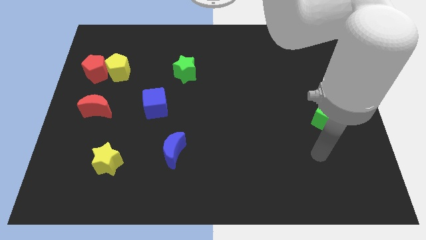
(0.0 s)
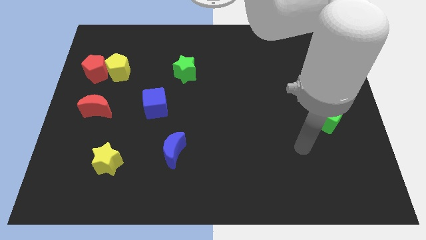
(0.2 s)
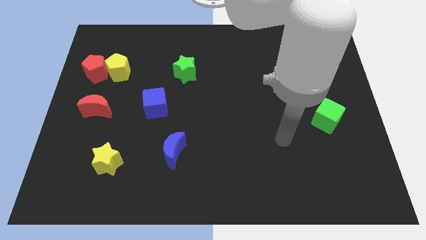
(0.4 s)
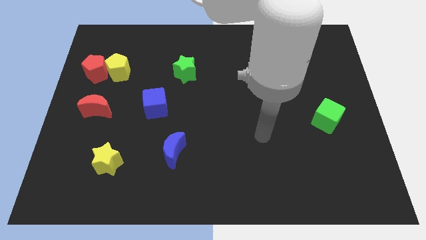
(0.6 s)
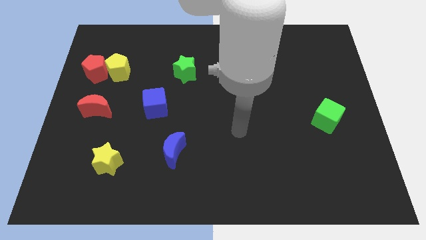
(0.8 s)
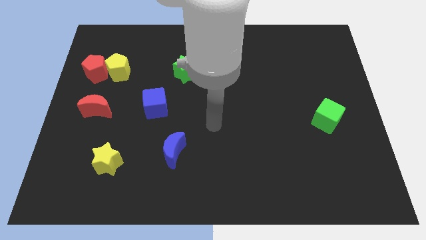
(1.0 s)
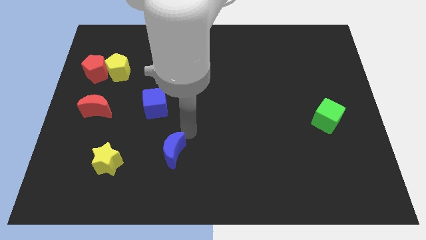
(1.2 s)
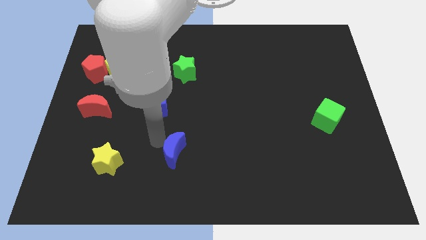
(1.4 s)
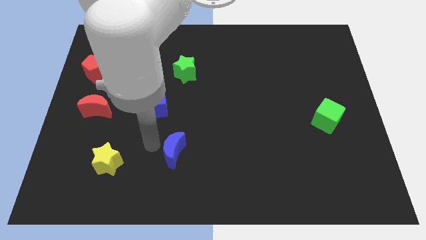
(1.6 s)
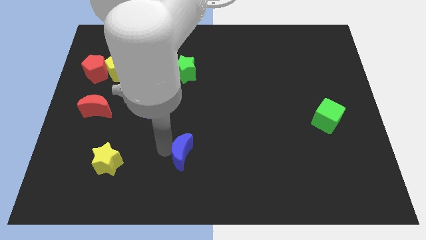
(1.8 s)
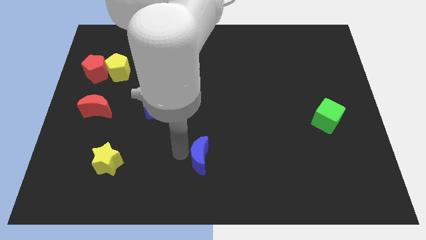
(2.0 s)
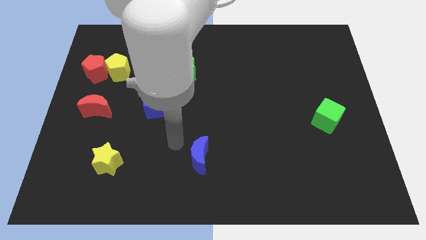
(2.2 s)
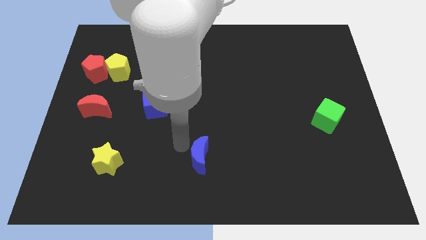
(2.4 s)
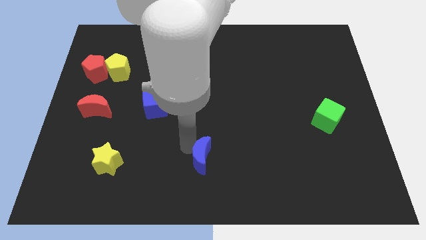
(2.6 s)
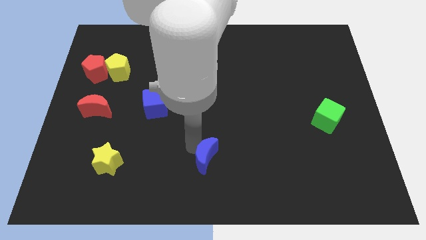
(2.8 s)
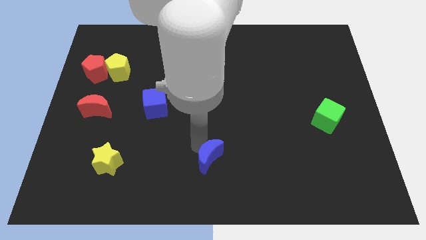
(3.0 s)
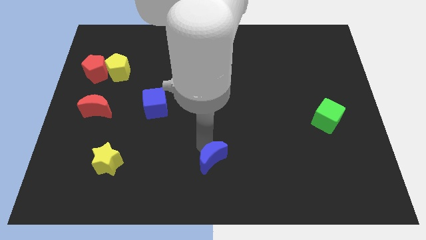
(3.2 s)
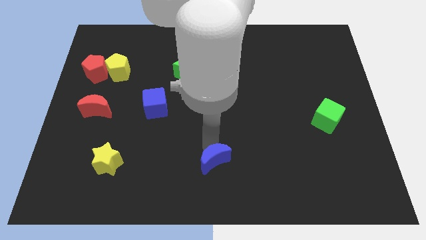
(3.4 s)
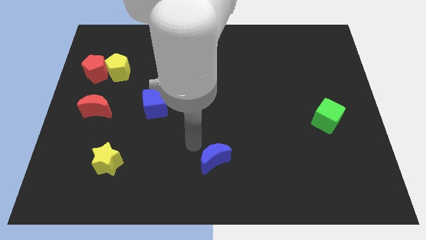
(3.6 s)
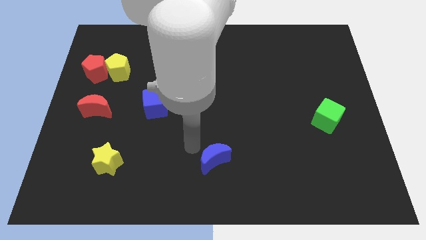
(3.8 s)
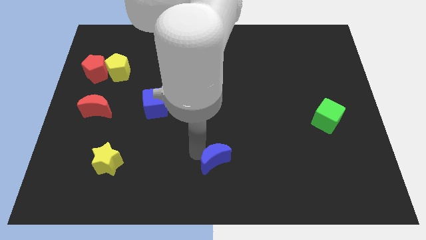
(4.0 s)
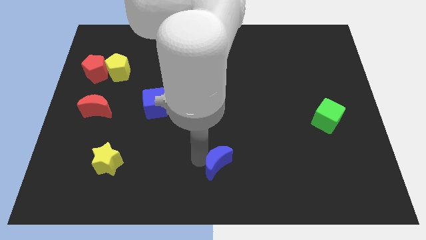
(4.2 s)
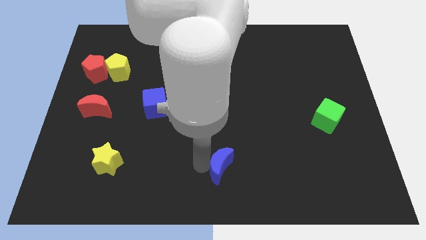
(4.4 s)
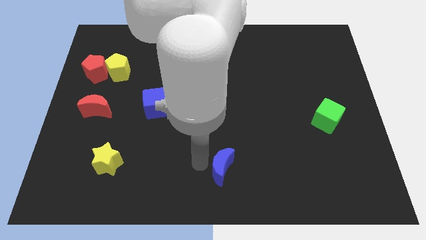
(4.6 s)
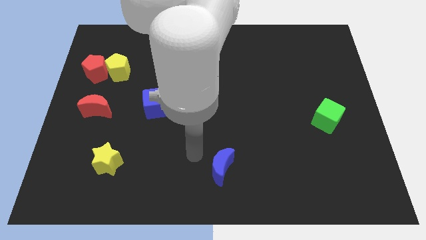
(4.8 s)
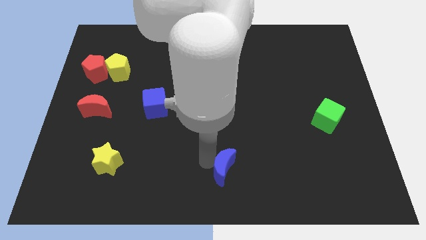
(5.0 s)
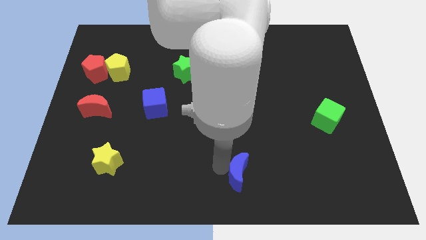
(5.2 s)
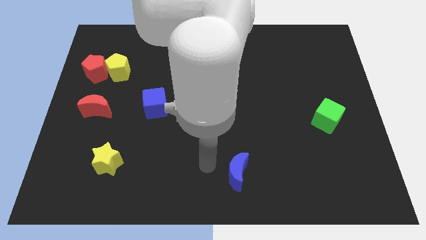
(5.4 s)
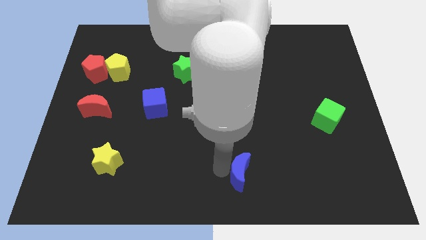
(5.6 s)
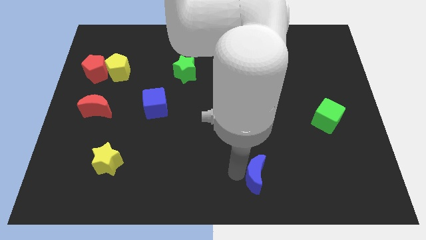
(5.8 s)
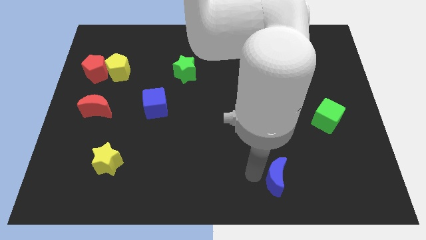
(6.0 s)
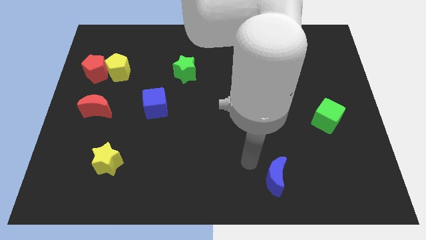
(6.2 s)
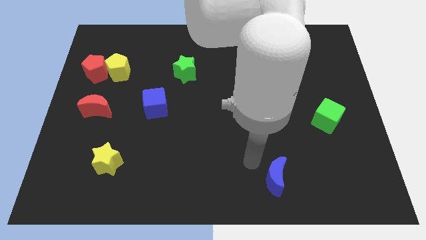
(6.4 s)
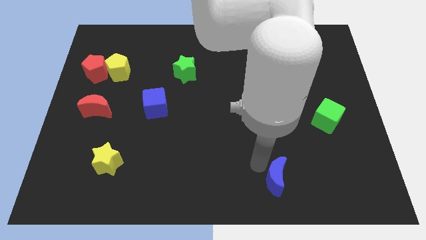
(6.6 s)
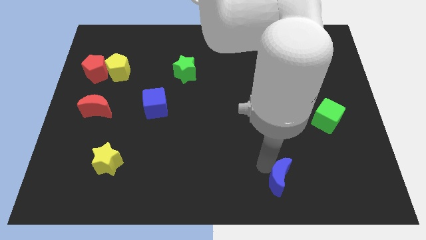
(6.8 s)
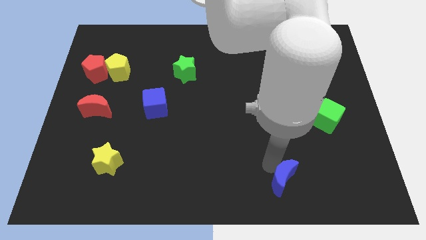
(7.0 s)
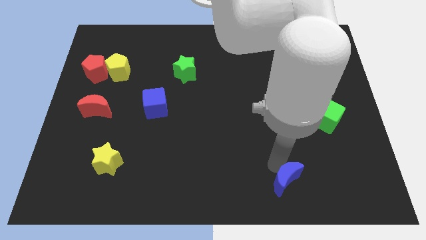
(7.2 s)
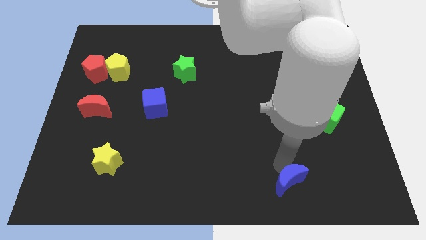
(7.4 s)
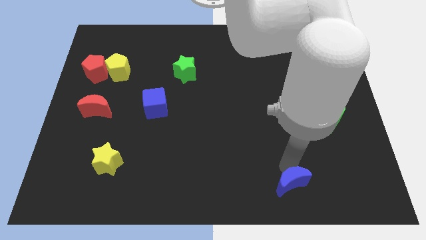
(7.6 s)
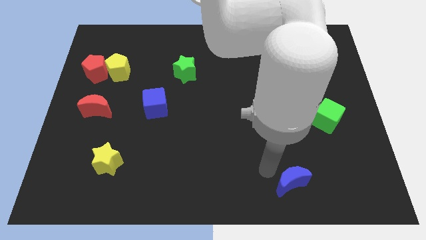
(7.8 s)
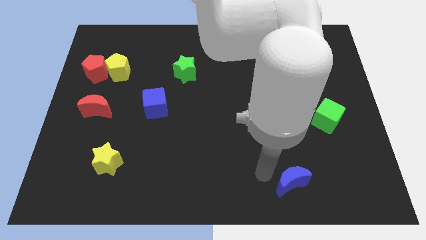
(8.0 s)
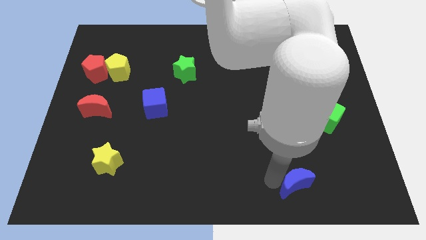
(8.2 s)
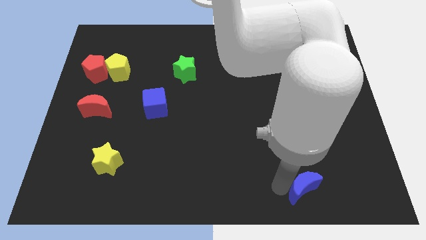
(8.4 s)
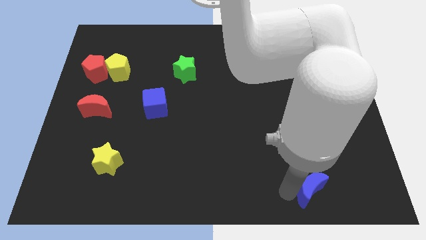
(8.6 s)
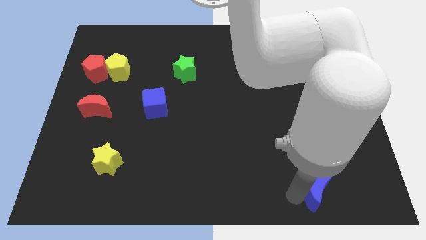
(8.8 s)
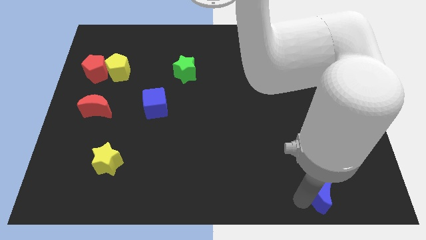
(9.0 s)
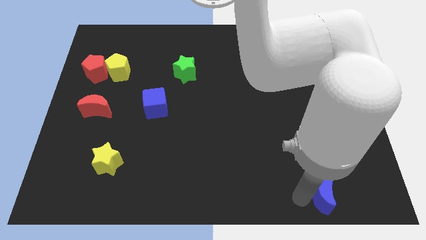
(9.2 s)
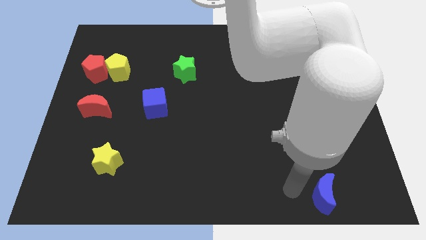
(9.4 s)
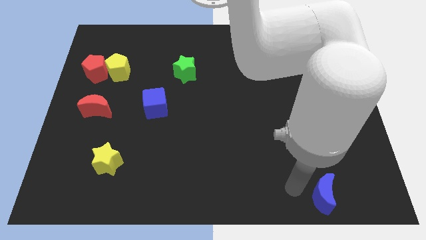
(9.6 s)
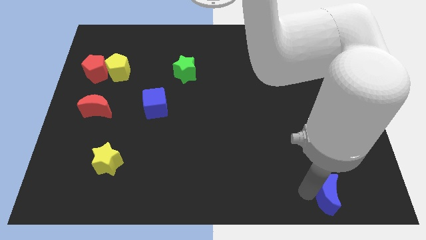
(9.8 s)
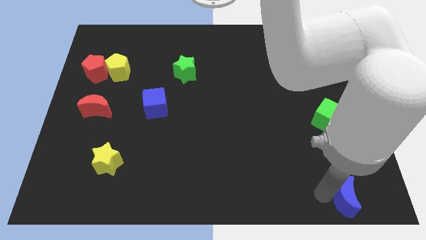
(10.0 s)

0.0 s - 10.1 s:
move the blue moon to the bottom right of the board

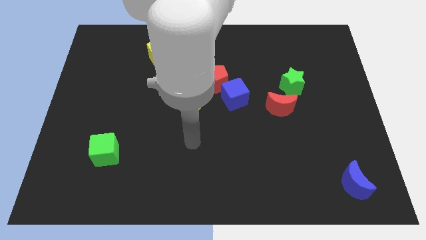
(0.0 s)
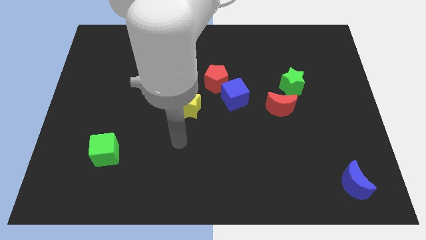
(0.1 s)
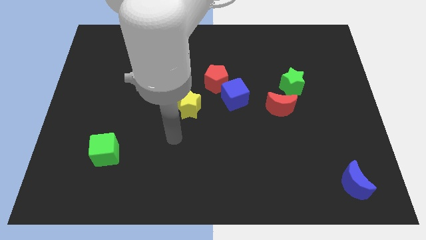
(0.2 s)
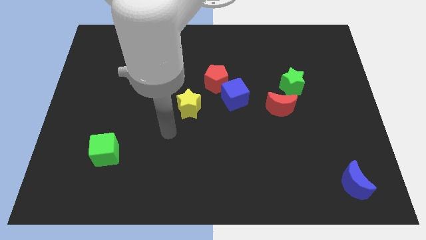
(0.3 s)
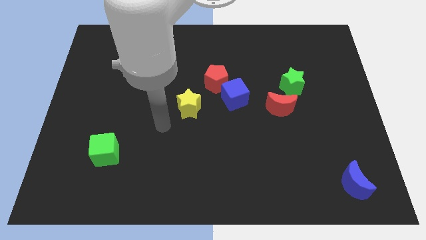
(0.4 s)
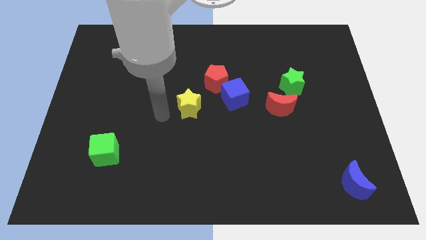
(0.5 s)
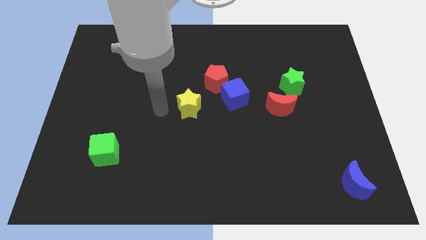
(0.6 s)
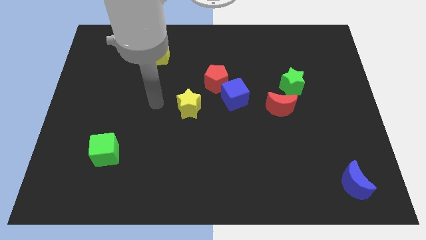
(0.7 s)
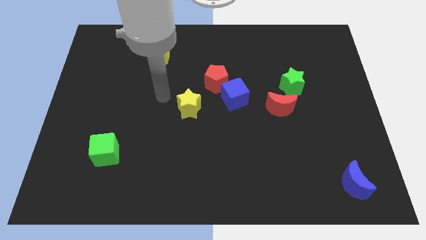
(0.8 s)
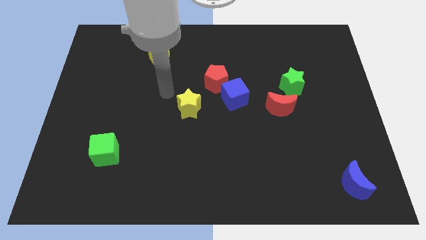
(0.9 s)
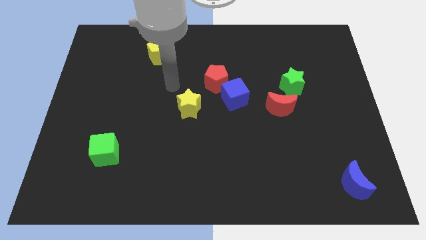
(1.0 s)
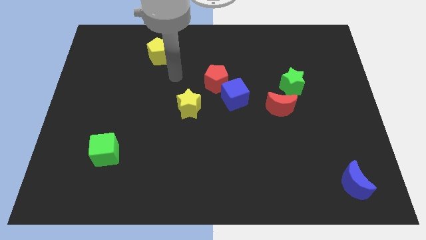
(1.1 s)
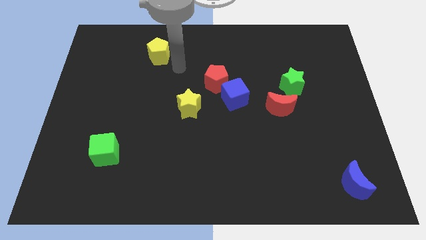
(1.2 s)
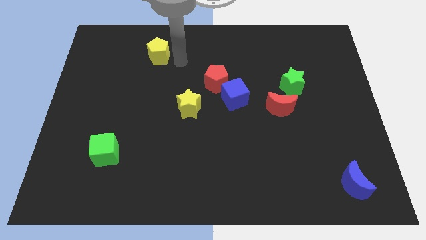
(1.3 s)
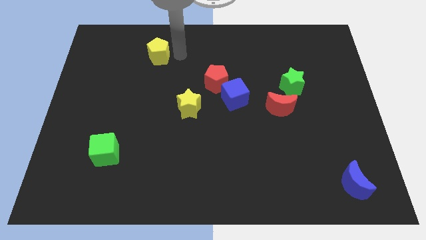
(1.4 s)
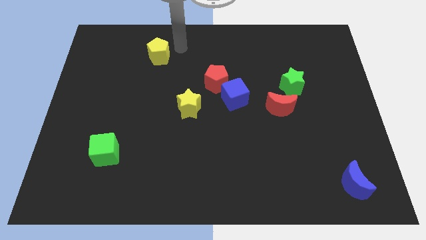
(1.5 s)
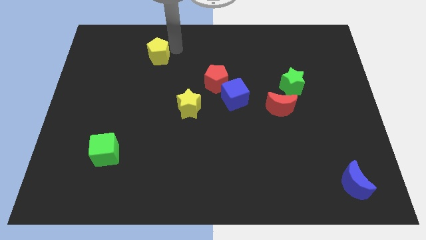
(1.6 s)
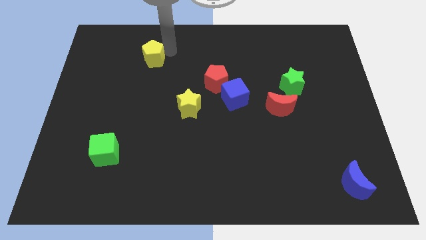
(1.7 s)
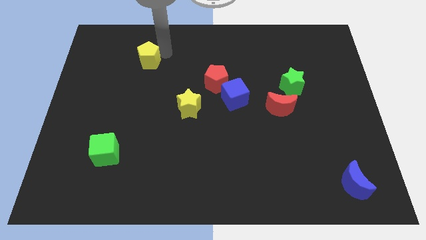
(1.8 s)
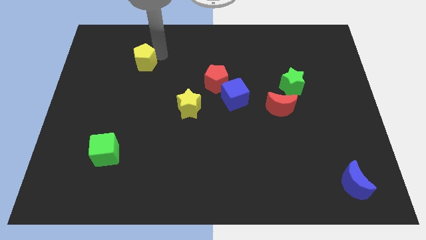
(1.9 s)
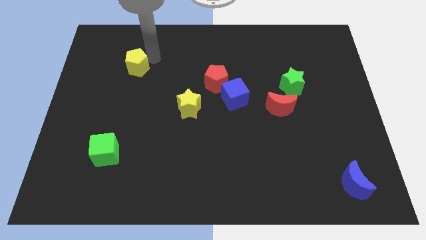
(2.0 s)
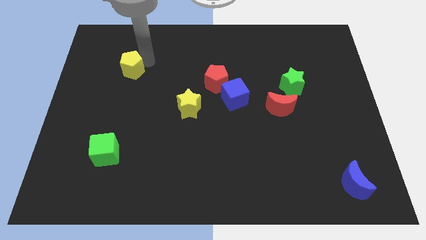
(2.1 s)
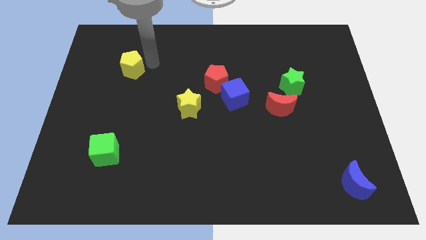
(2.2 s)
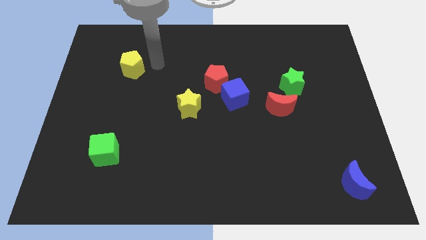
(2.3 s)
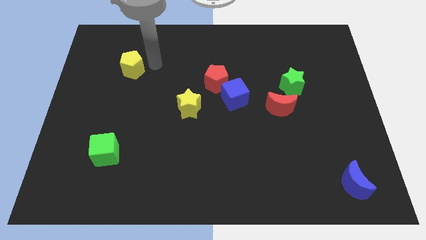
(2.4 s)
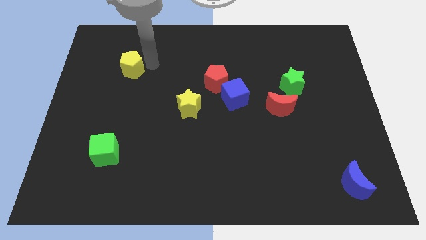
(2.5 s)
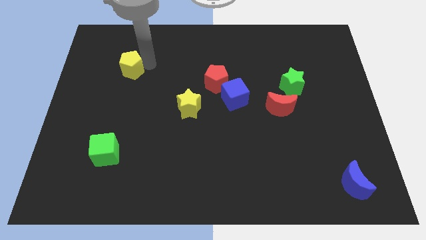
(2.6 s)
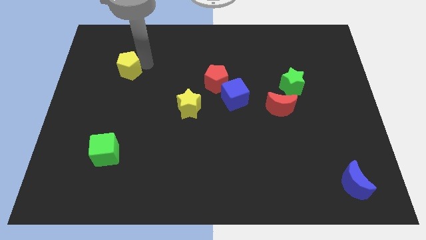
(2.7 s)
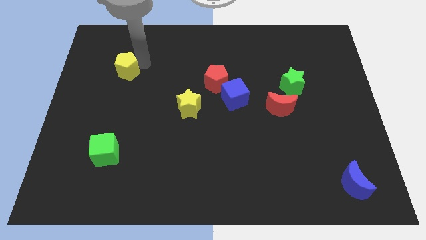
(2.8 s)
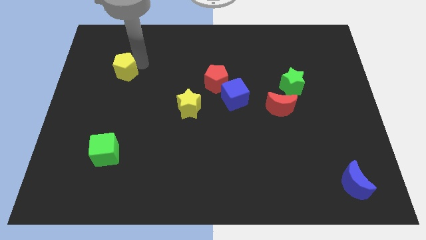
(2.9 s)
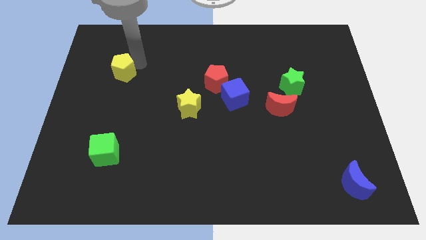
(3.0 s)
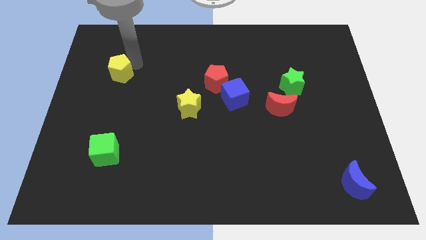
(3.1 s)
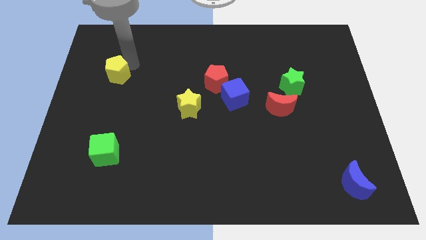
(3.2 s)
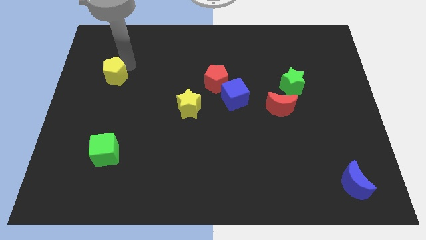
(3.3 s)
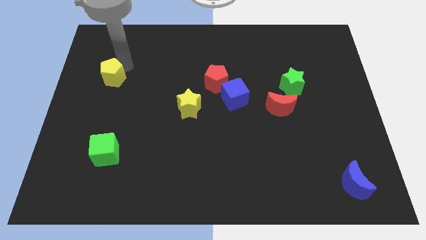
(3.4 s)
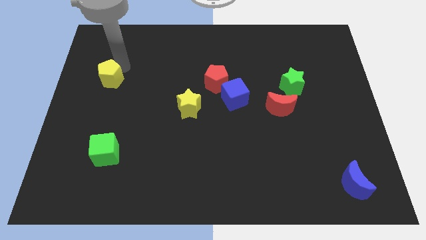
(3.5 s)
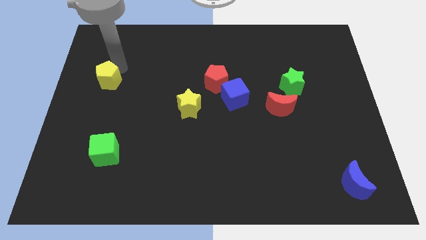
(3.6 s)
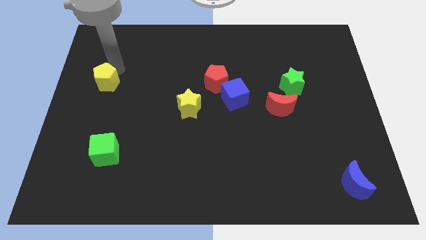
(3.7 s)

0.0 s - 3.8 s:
slide the yellow pentagon to the left side of the board
